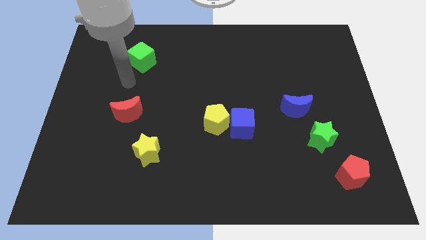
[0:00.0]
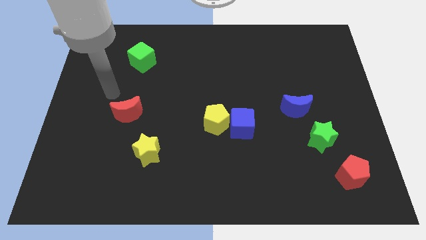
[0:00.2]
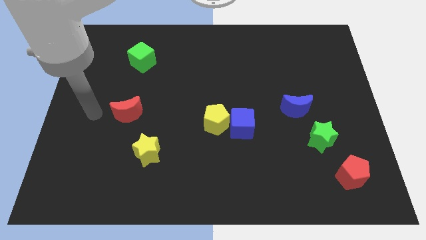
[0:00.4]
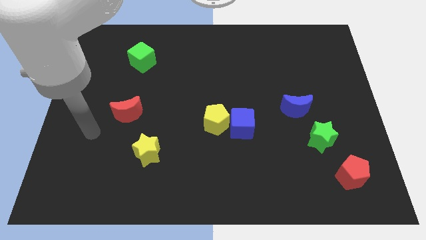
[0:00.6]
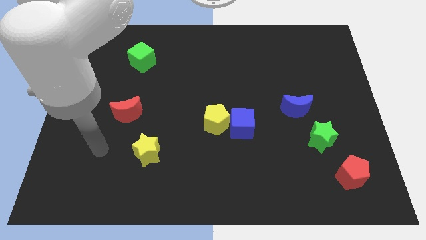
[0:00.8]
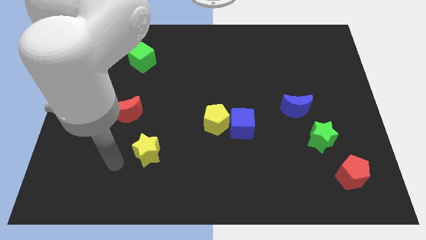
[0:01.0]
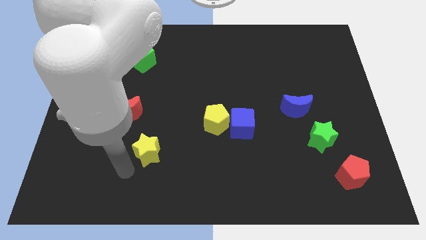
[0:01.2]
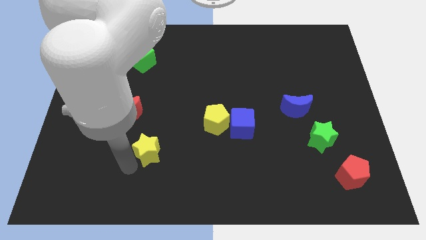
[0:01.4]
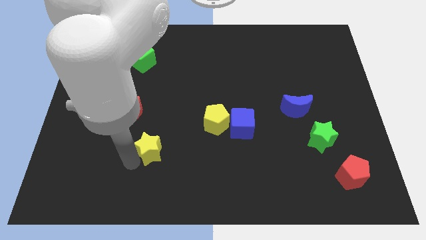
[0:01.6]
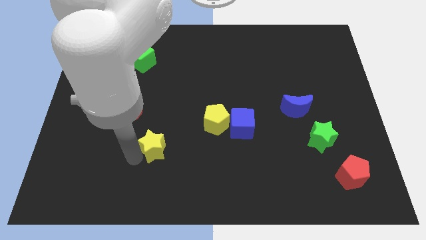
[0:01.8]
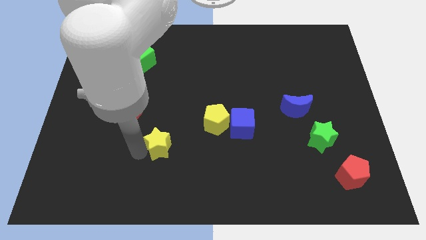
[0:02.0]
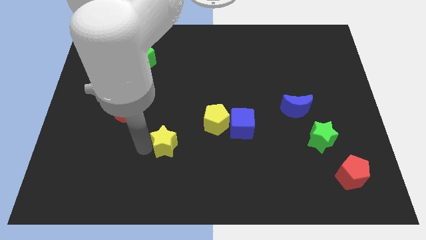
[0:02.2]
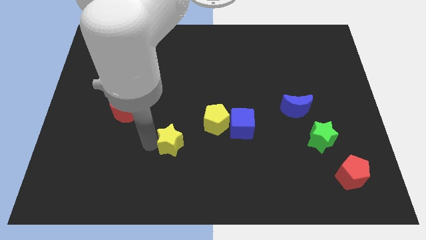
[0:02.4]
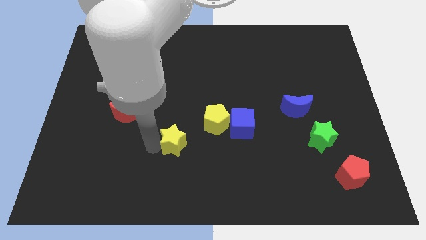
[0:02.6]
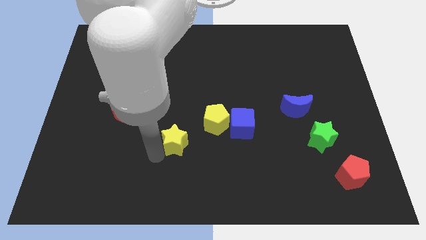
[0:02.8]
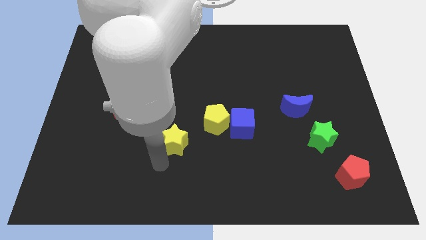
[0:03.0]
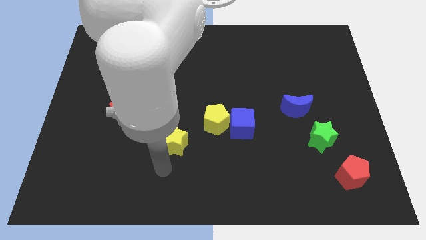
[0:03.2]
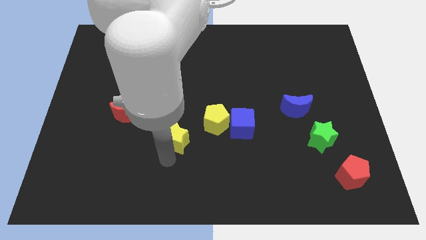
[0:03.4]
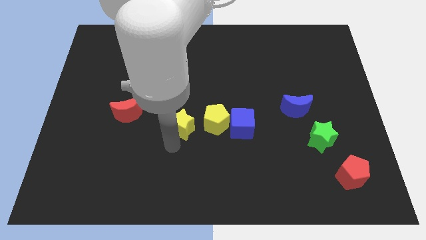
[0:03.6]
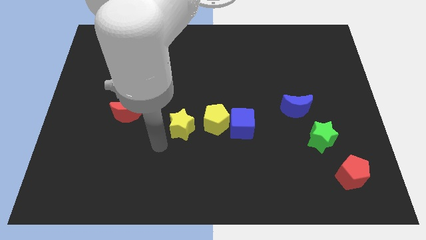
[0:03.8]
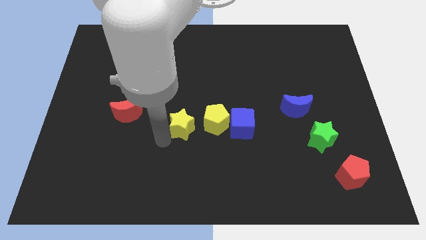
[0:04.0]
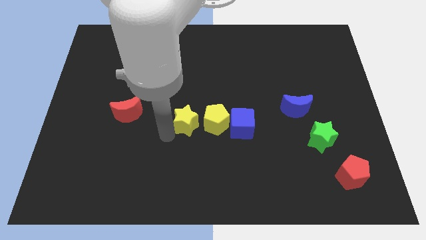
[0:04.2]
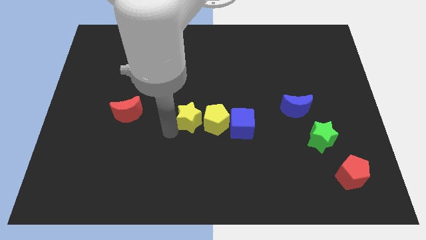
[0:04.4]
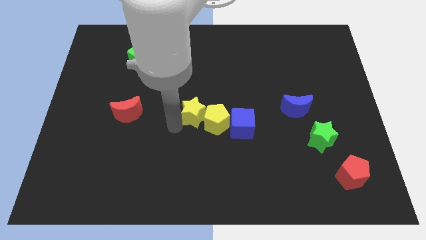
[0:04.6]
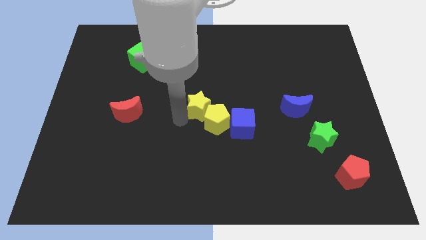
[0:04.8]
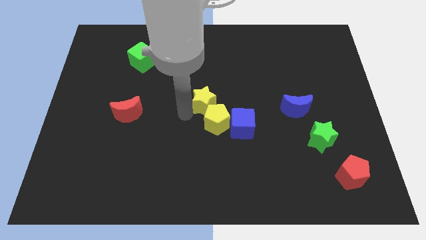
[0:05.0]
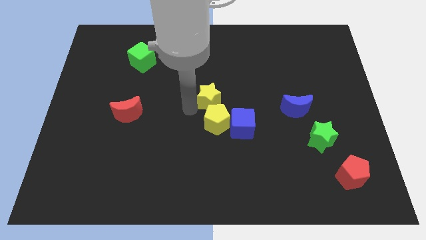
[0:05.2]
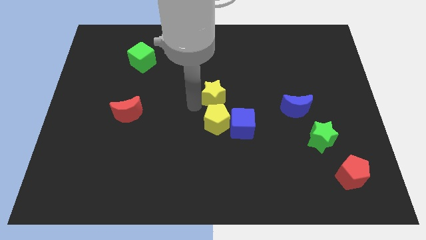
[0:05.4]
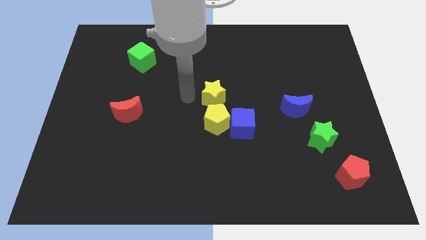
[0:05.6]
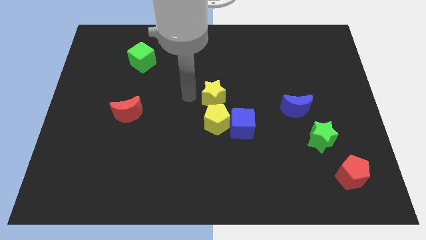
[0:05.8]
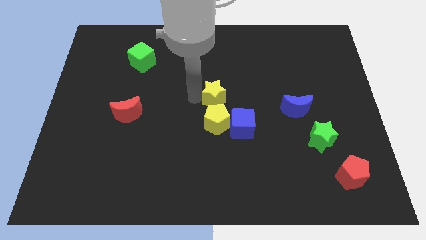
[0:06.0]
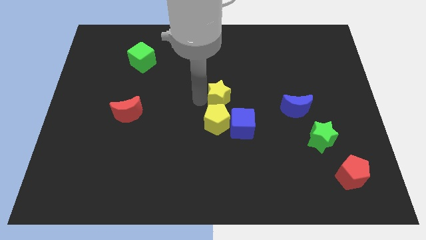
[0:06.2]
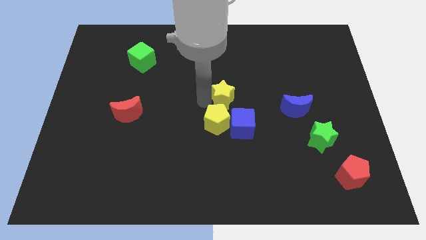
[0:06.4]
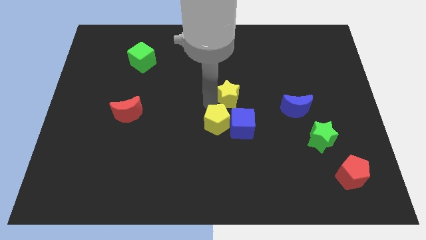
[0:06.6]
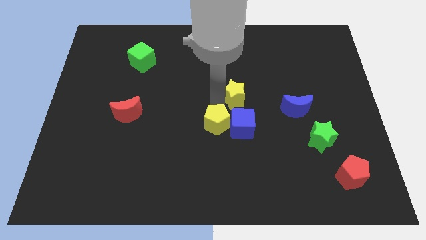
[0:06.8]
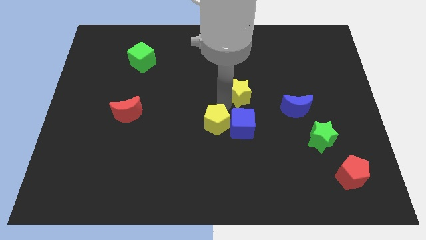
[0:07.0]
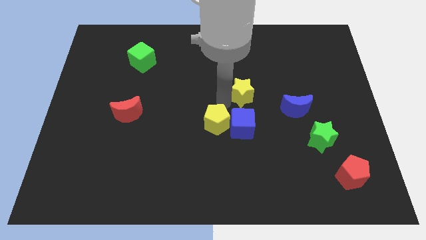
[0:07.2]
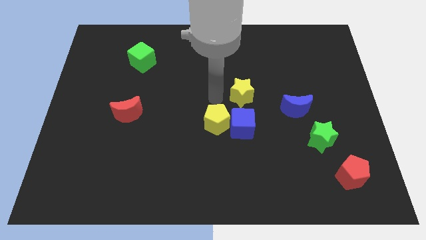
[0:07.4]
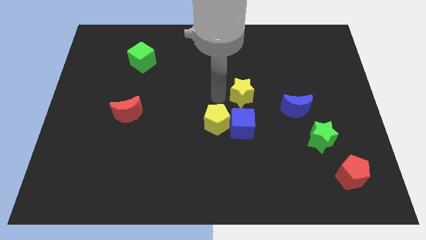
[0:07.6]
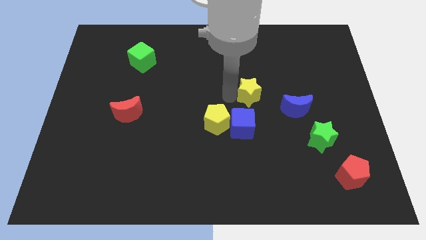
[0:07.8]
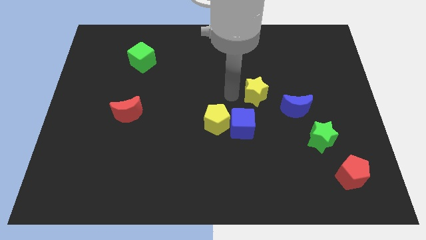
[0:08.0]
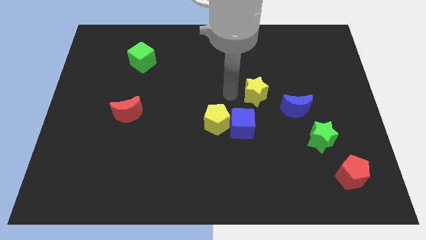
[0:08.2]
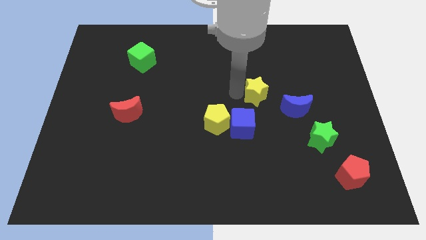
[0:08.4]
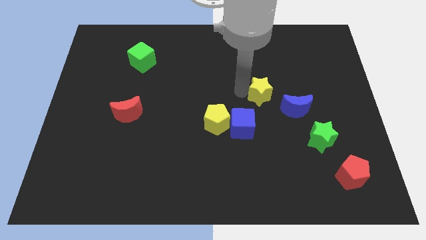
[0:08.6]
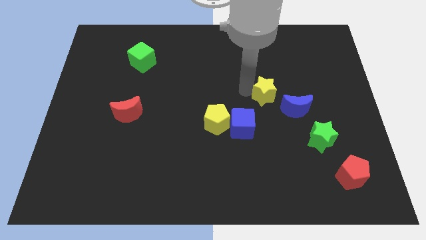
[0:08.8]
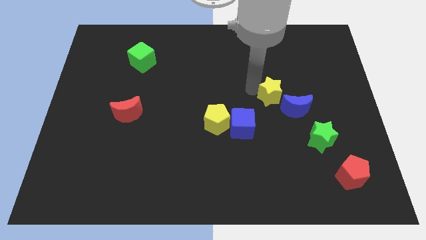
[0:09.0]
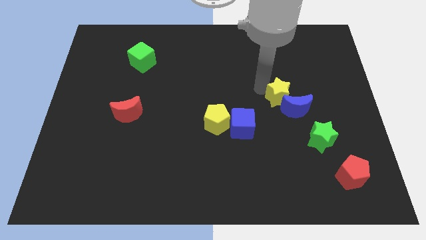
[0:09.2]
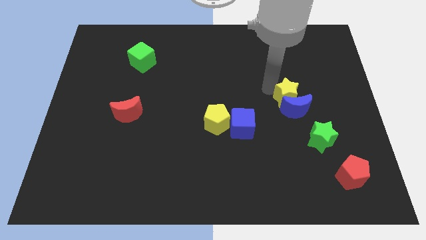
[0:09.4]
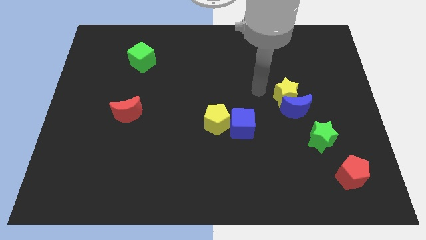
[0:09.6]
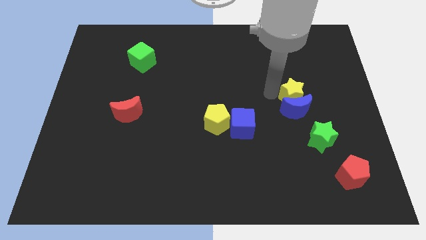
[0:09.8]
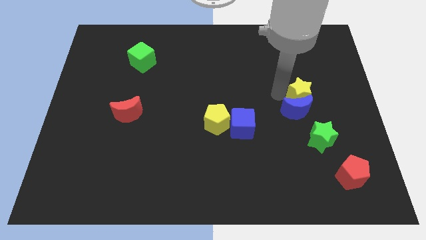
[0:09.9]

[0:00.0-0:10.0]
push the yellow star to the top of the green star

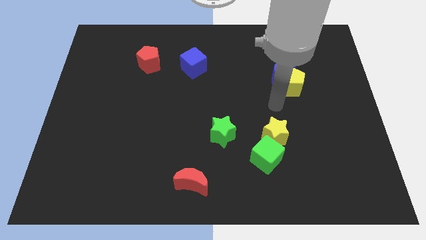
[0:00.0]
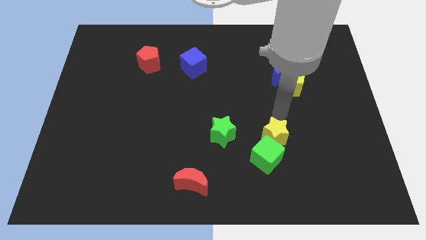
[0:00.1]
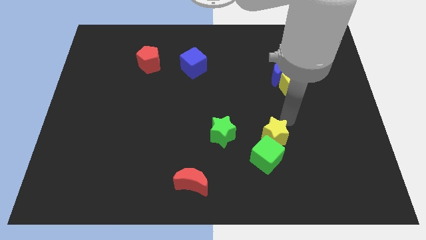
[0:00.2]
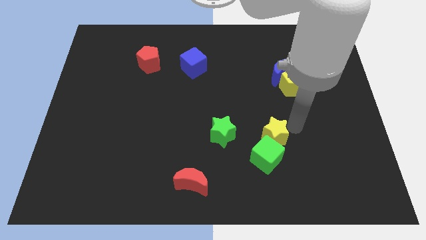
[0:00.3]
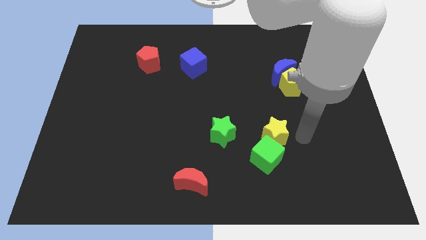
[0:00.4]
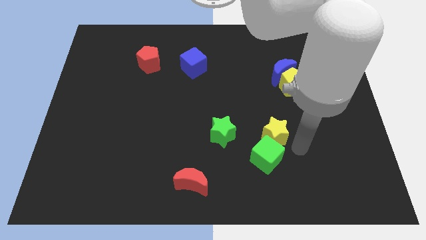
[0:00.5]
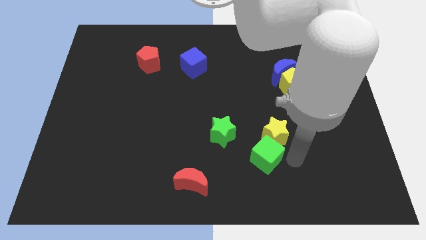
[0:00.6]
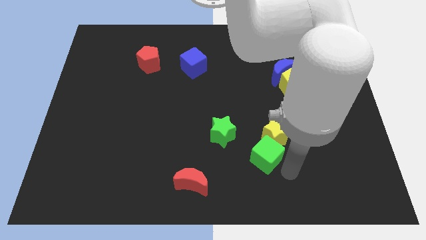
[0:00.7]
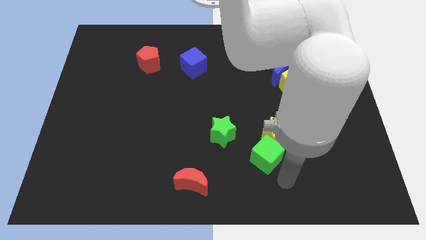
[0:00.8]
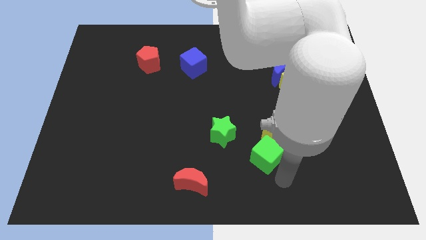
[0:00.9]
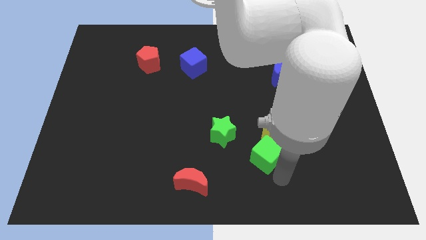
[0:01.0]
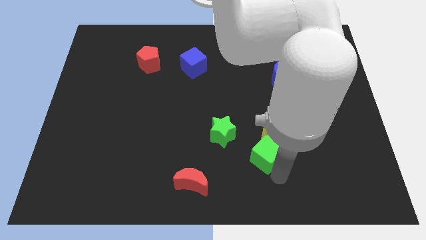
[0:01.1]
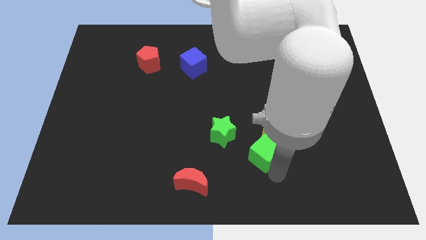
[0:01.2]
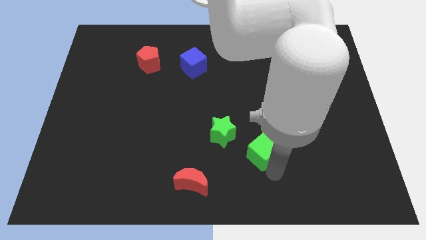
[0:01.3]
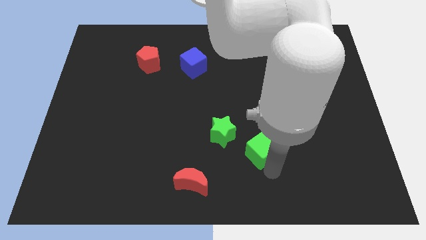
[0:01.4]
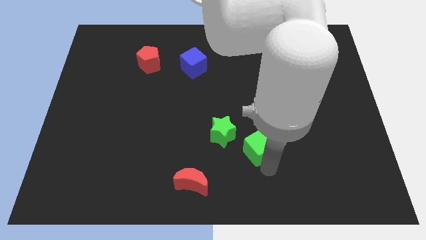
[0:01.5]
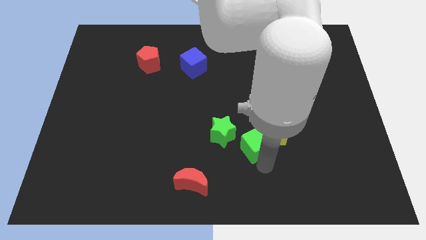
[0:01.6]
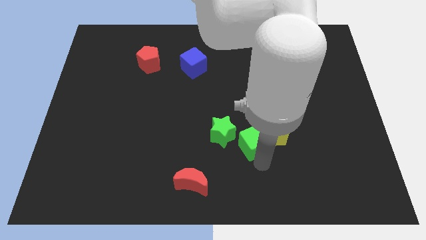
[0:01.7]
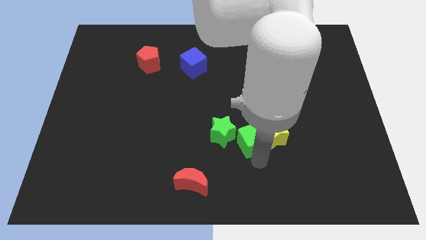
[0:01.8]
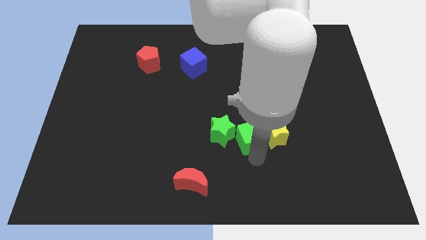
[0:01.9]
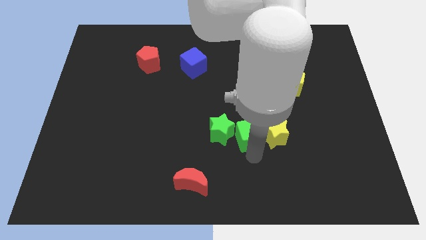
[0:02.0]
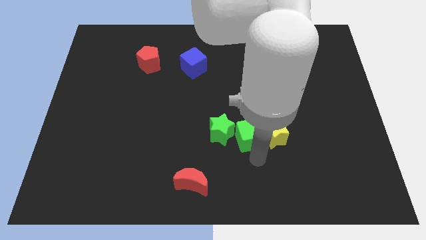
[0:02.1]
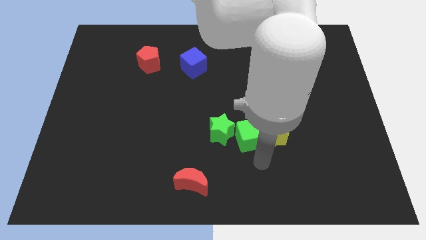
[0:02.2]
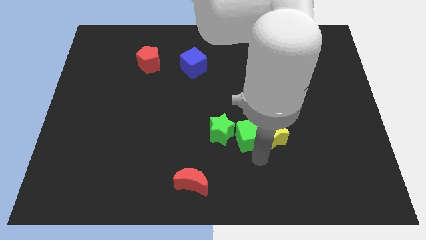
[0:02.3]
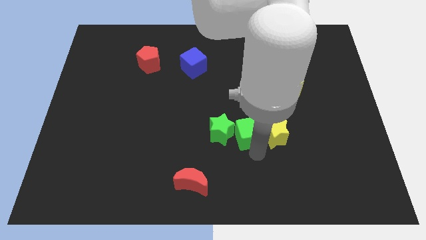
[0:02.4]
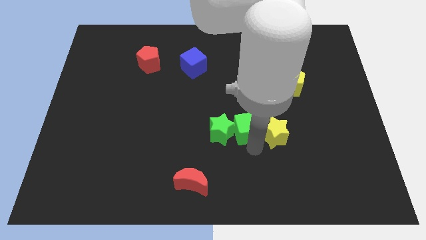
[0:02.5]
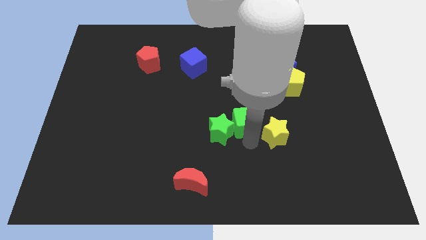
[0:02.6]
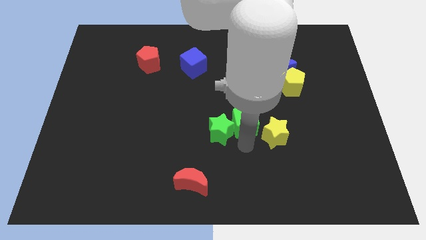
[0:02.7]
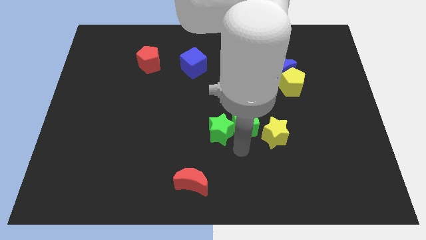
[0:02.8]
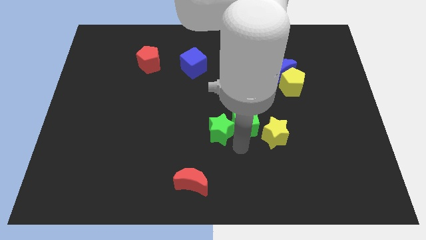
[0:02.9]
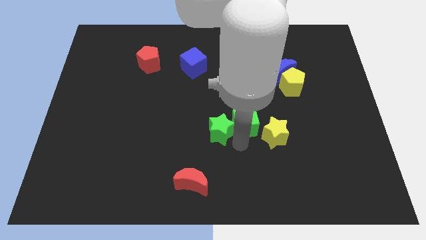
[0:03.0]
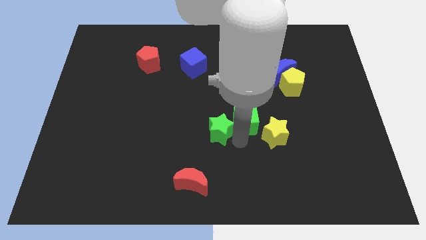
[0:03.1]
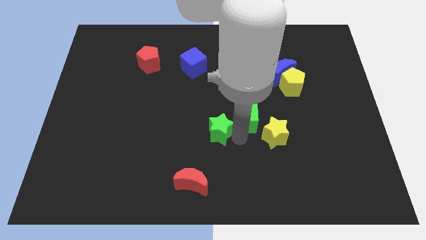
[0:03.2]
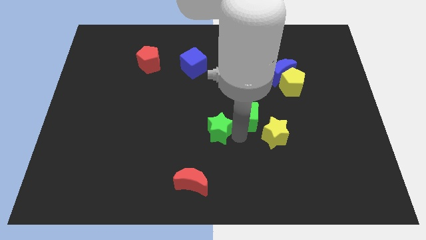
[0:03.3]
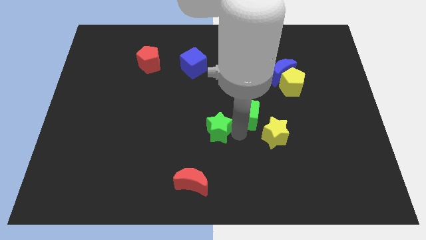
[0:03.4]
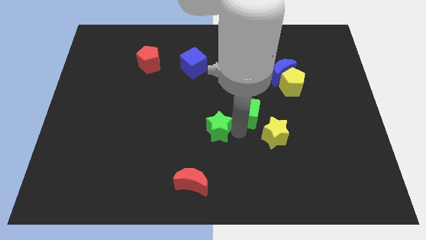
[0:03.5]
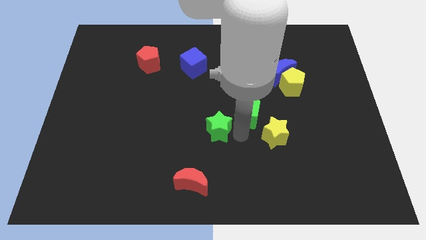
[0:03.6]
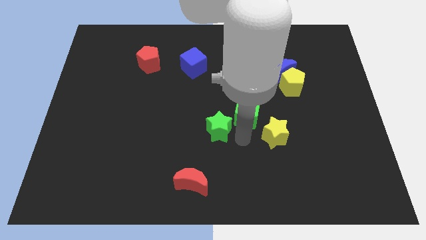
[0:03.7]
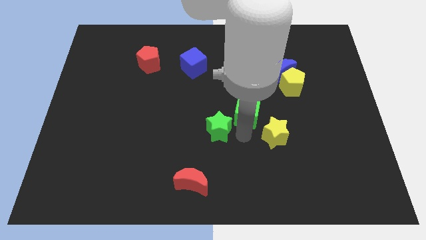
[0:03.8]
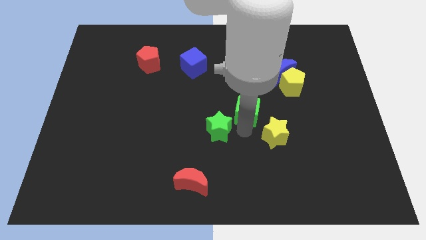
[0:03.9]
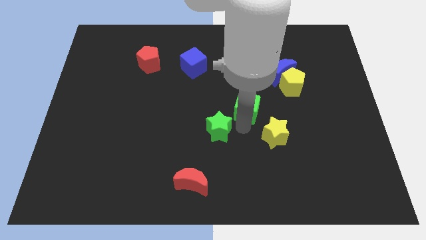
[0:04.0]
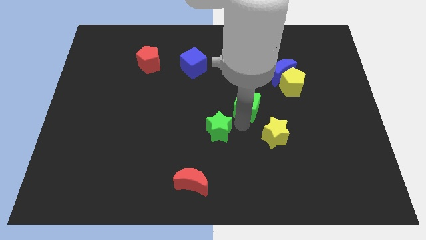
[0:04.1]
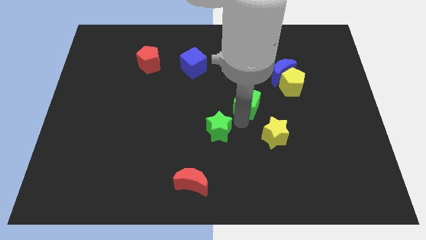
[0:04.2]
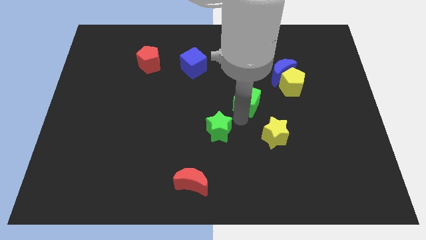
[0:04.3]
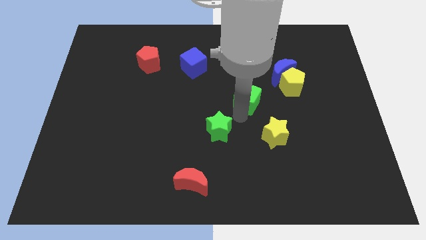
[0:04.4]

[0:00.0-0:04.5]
push the green cube to the bottom left of the blue moon
